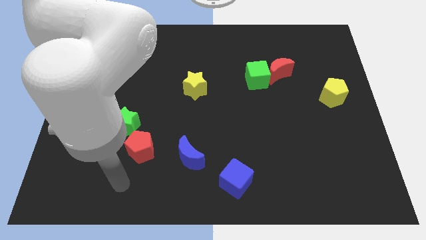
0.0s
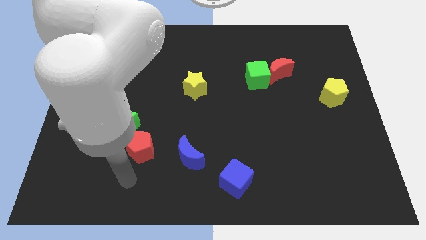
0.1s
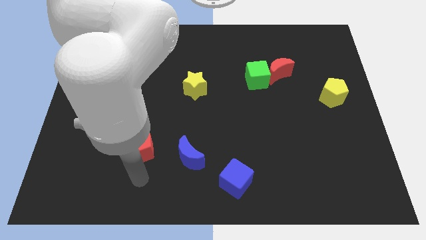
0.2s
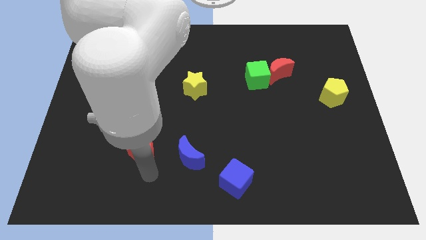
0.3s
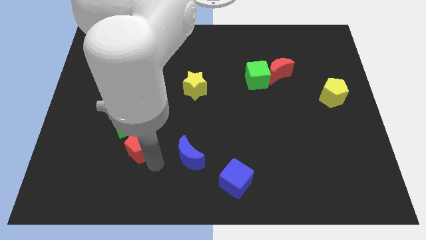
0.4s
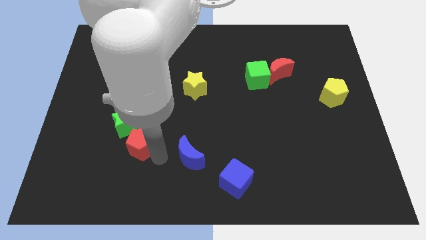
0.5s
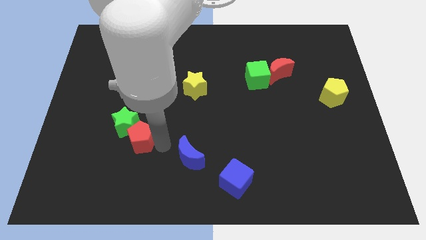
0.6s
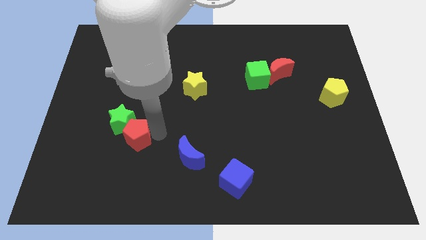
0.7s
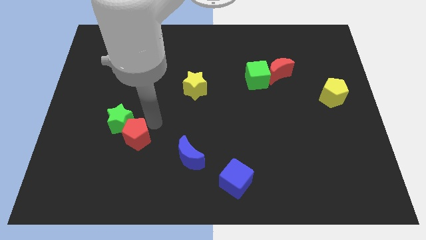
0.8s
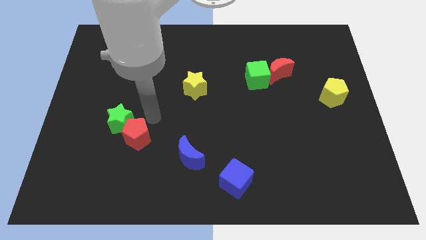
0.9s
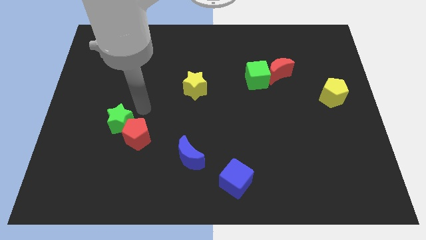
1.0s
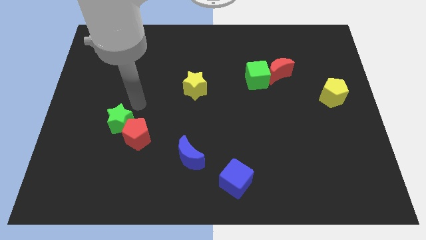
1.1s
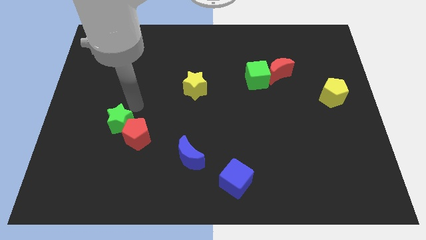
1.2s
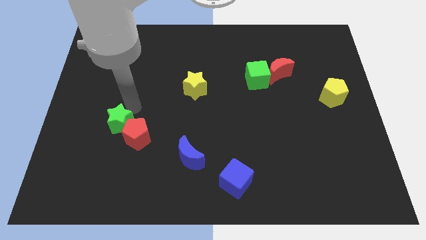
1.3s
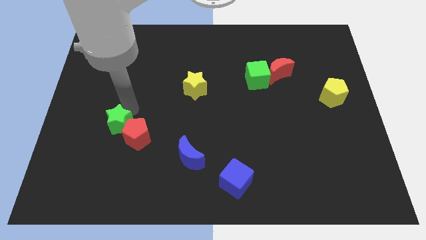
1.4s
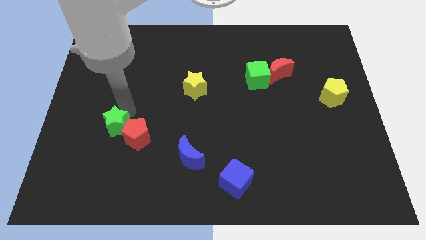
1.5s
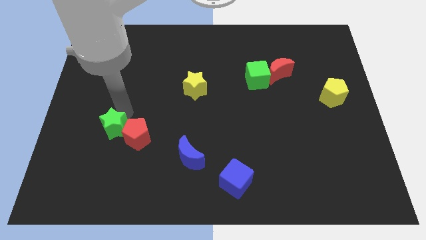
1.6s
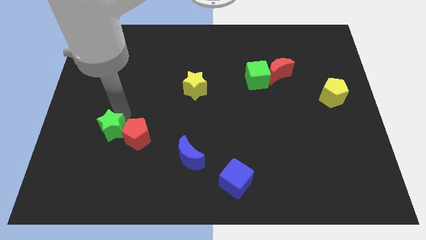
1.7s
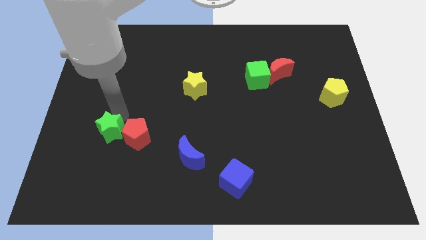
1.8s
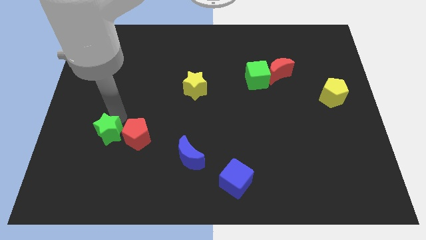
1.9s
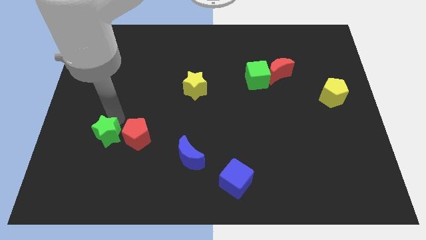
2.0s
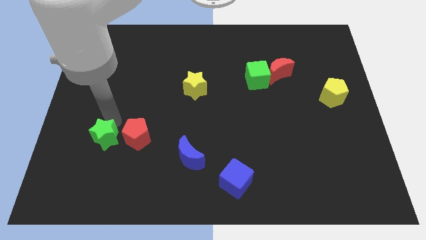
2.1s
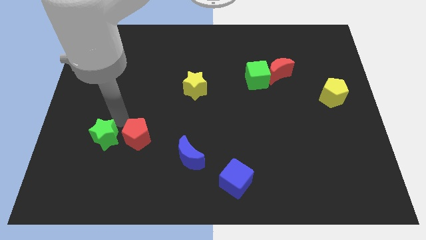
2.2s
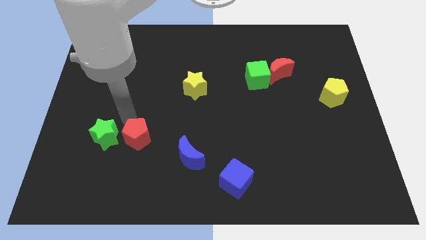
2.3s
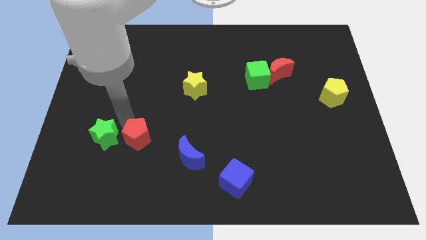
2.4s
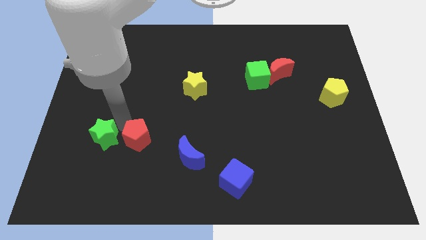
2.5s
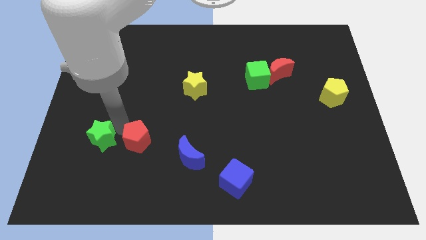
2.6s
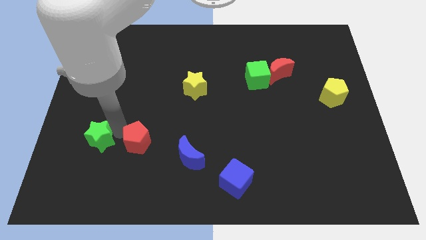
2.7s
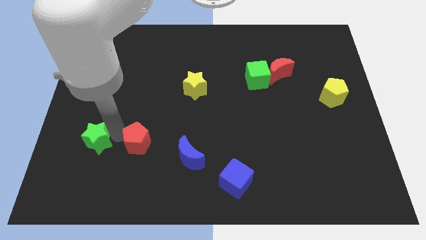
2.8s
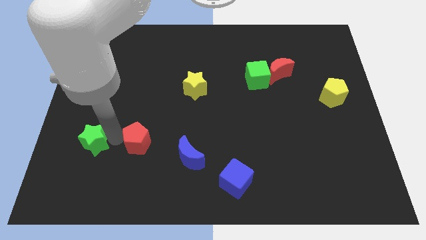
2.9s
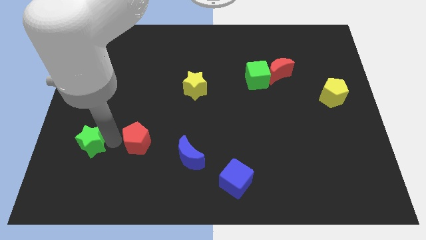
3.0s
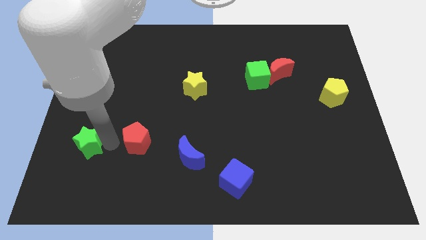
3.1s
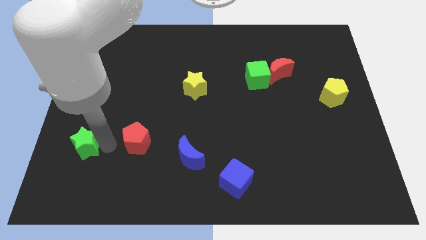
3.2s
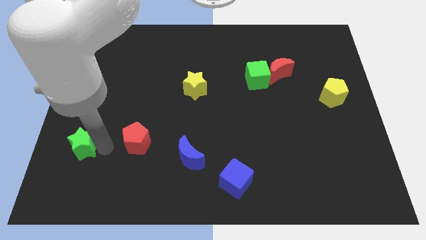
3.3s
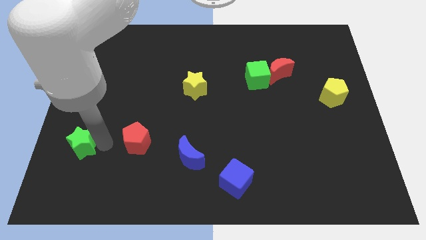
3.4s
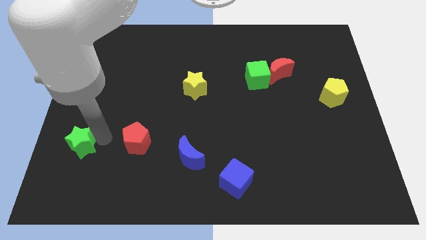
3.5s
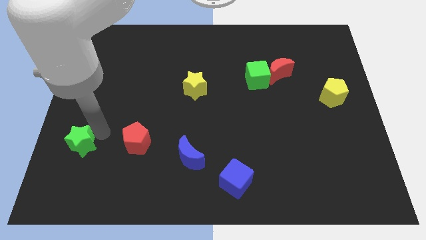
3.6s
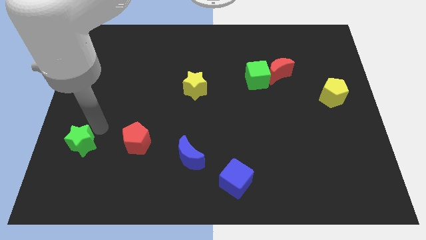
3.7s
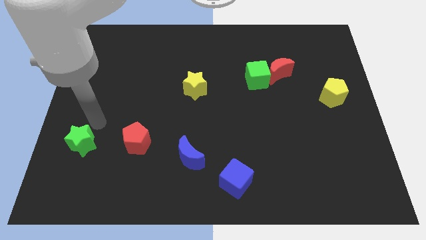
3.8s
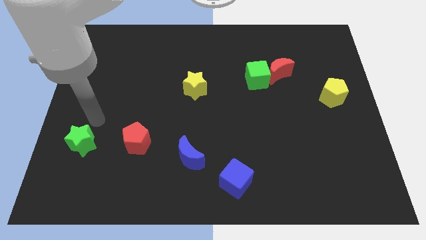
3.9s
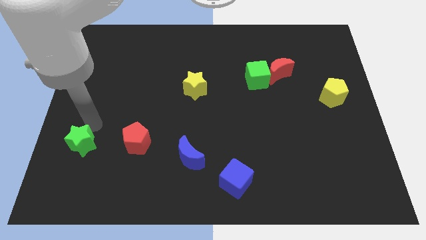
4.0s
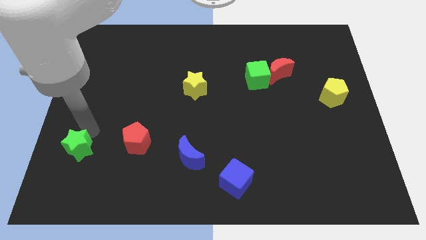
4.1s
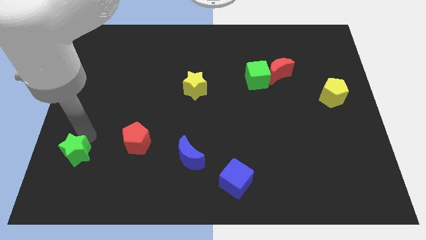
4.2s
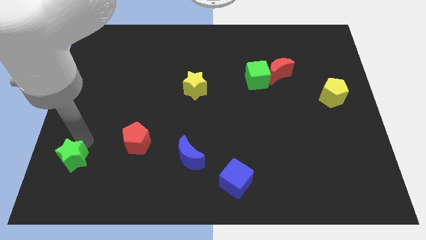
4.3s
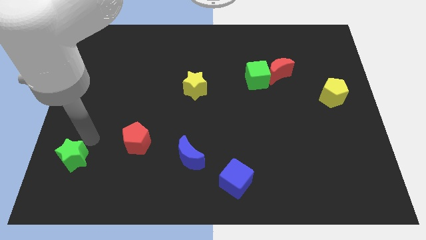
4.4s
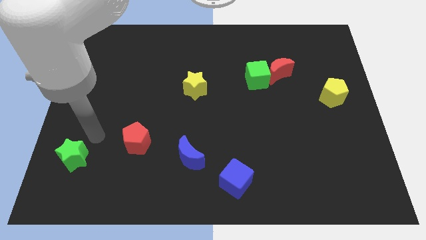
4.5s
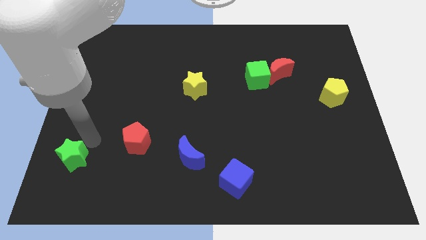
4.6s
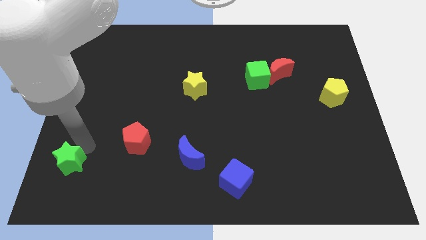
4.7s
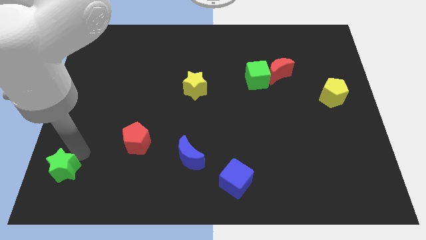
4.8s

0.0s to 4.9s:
slide the green star to the bottom left of the board

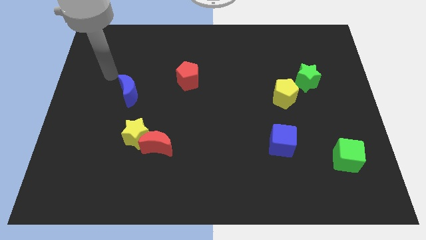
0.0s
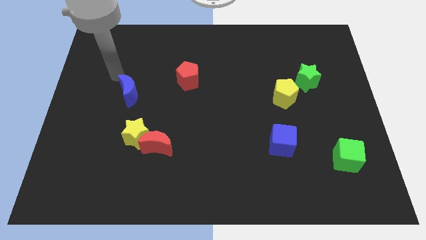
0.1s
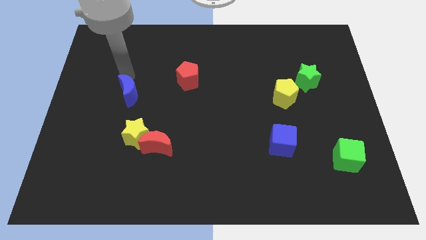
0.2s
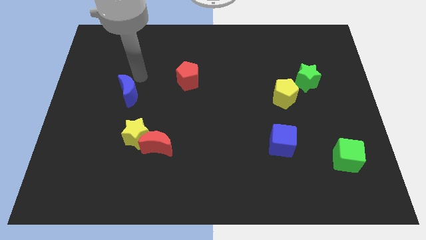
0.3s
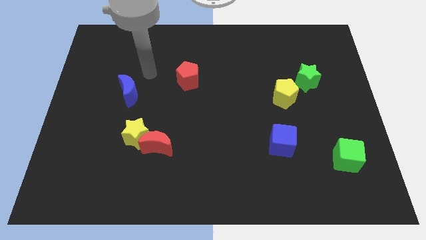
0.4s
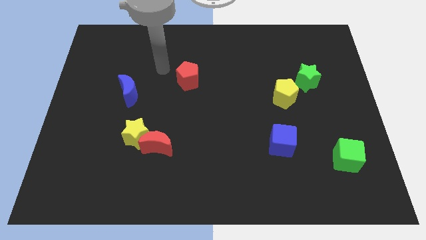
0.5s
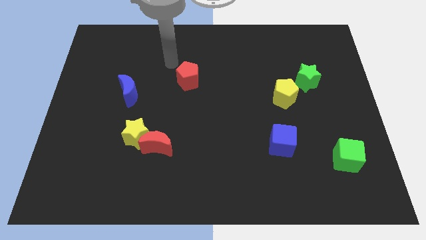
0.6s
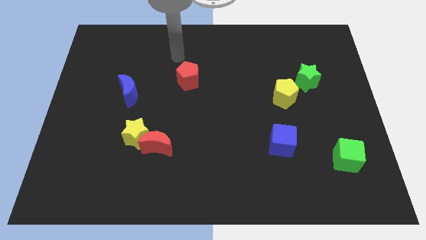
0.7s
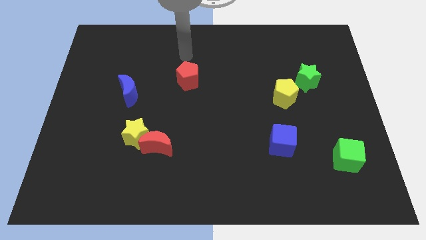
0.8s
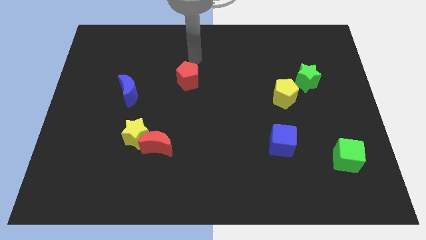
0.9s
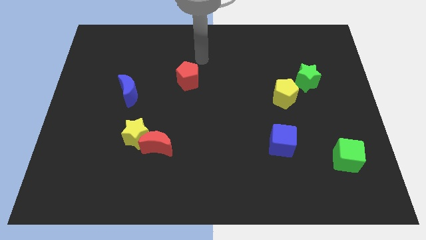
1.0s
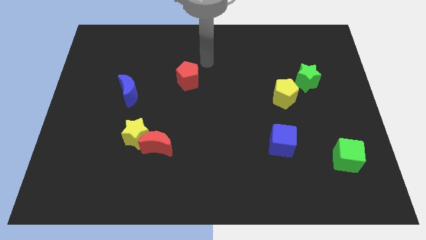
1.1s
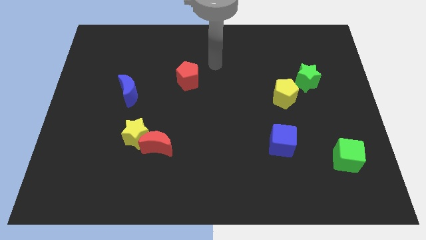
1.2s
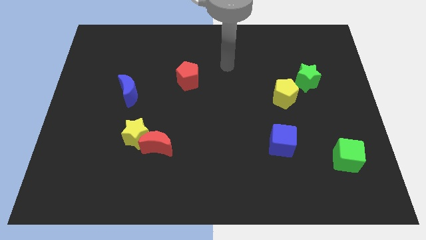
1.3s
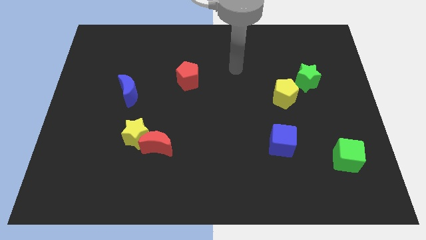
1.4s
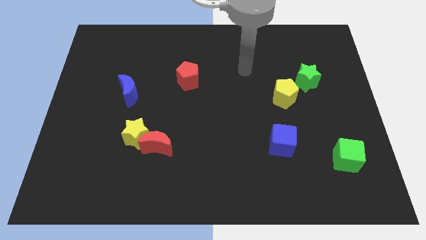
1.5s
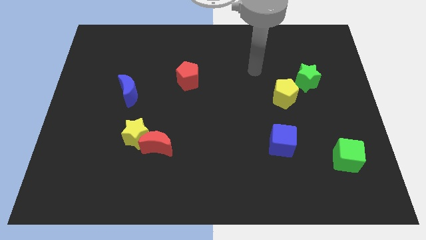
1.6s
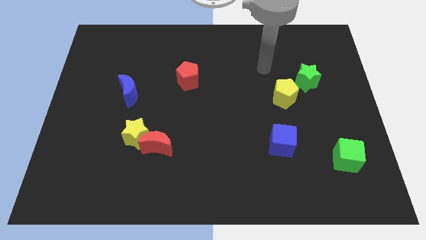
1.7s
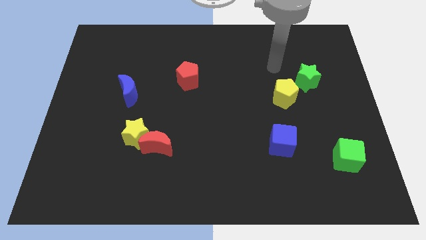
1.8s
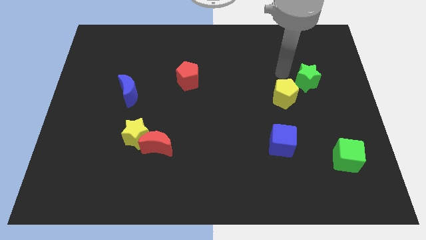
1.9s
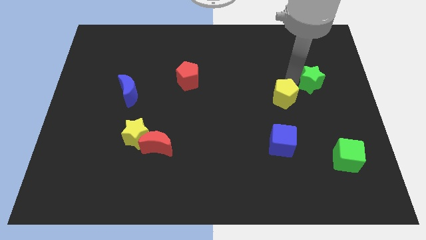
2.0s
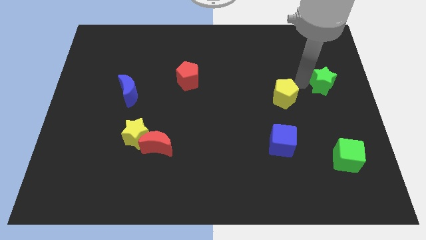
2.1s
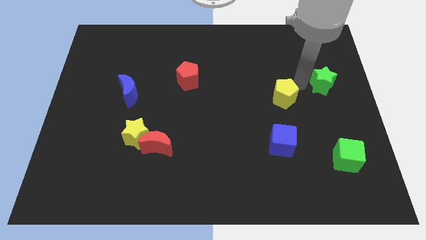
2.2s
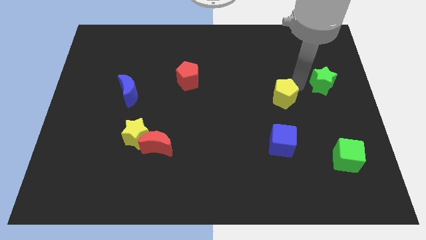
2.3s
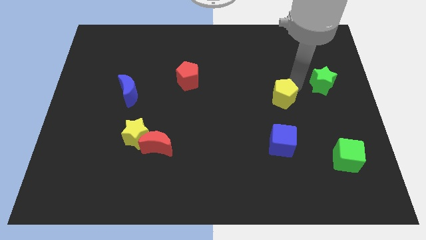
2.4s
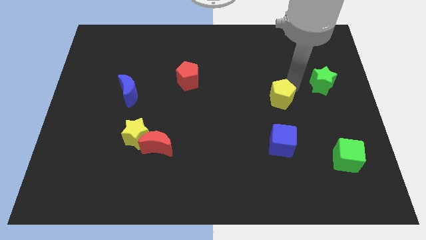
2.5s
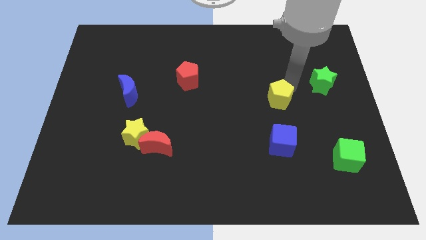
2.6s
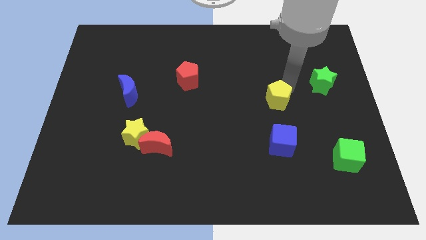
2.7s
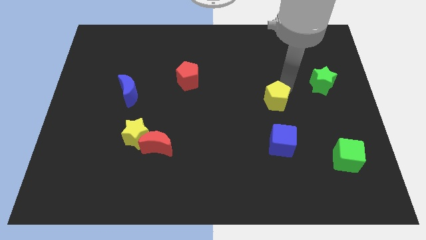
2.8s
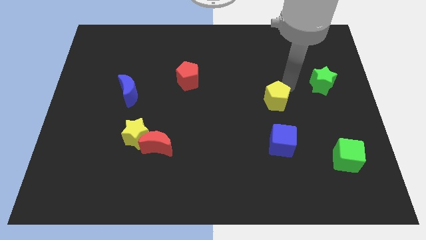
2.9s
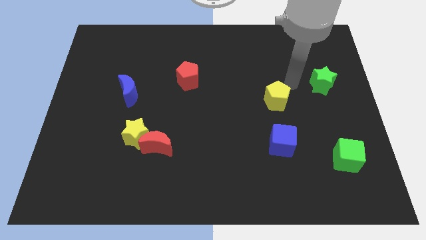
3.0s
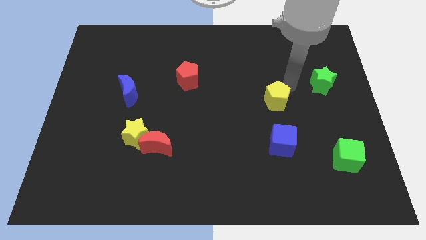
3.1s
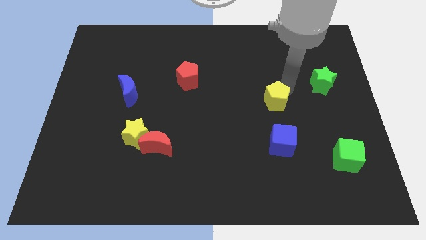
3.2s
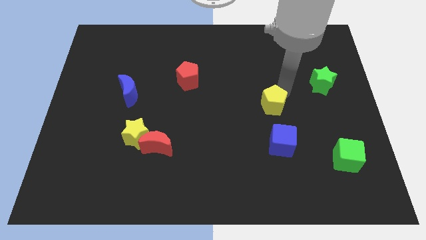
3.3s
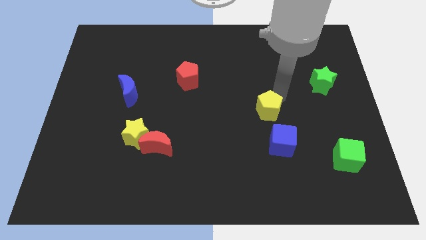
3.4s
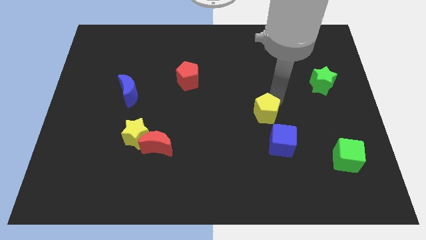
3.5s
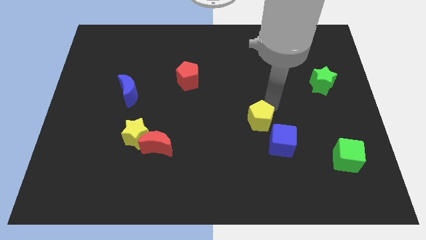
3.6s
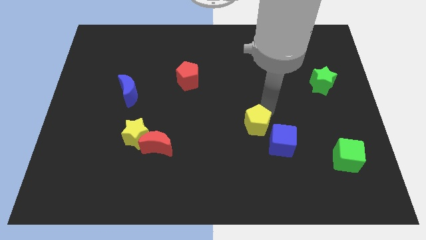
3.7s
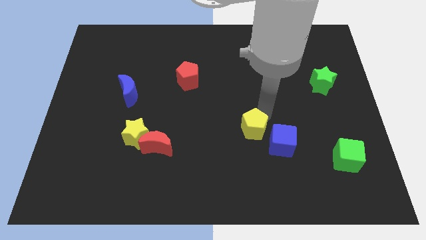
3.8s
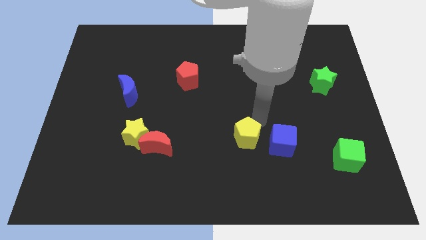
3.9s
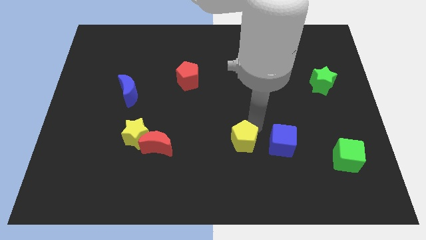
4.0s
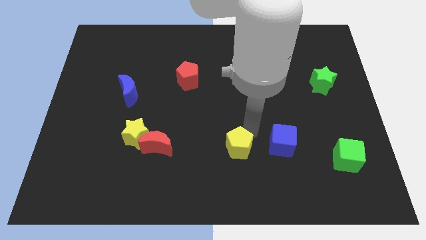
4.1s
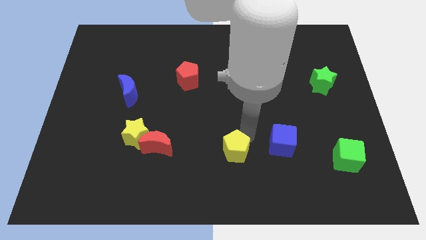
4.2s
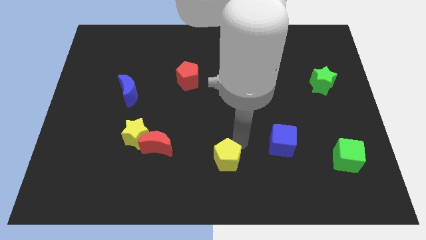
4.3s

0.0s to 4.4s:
move the yellow pentagon to the bottom side
